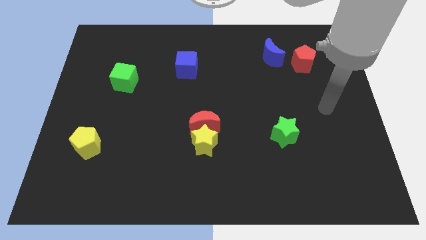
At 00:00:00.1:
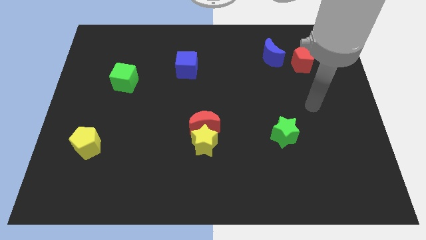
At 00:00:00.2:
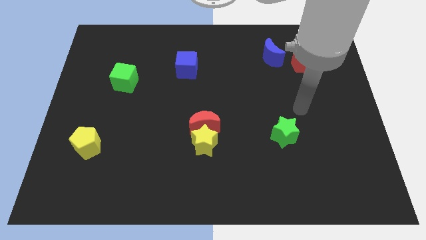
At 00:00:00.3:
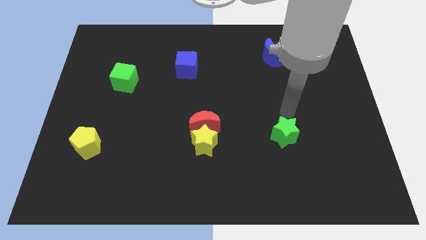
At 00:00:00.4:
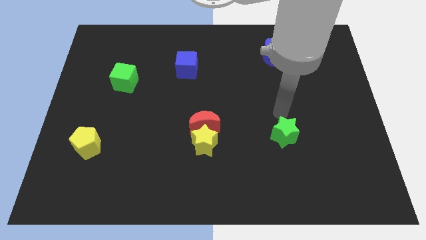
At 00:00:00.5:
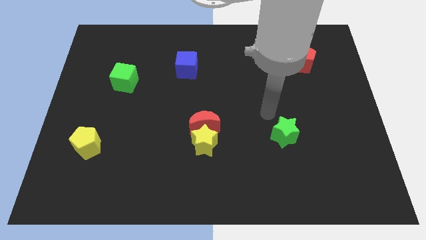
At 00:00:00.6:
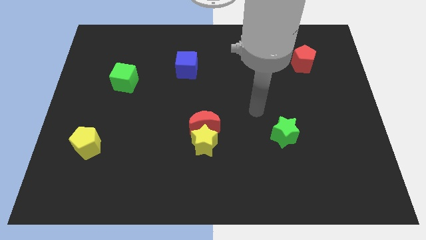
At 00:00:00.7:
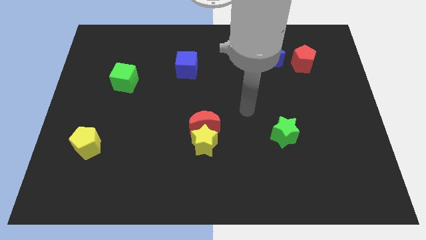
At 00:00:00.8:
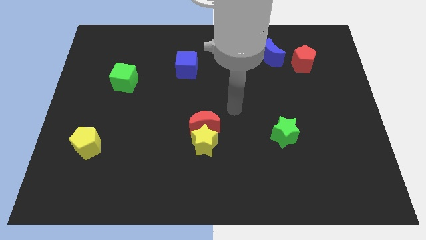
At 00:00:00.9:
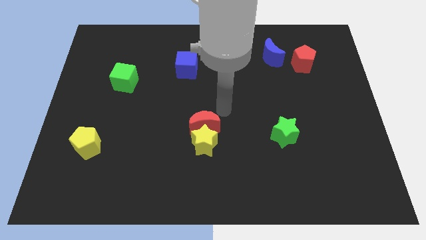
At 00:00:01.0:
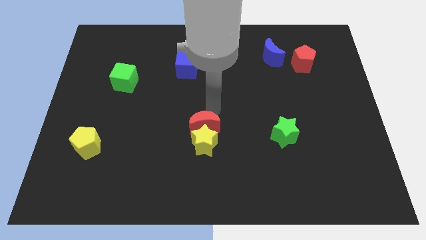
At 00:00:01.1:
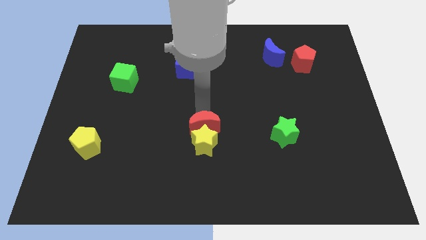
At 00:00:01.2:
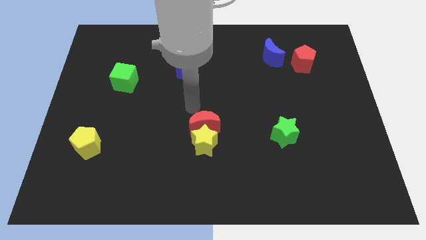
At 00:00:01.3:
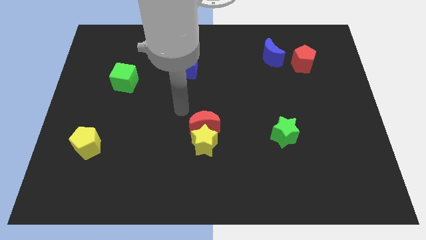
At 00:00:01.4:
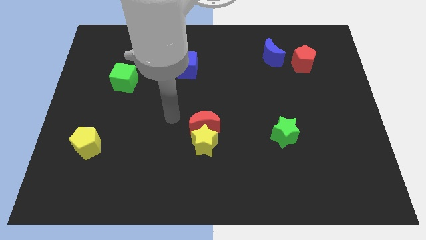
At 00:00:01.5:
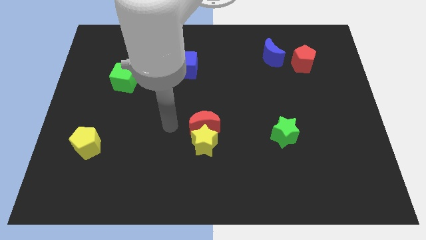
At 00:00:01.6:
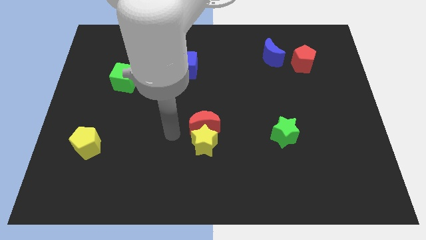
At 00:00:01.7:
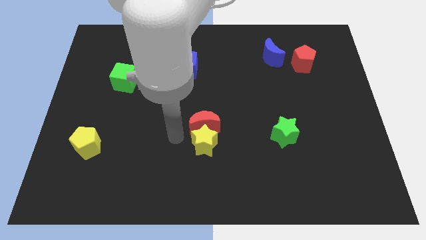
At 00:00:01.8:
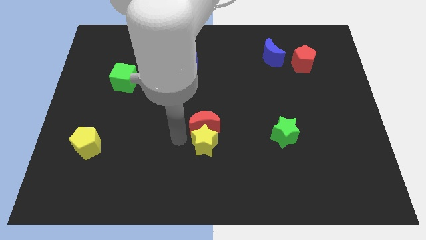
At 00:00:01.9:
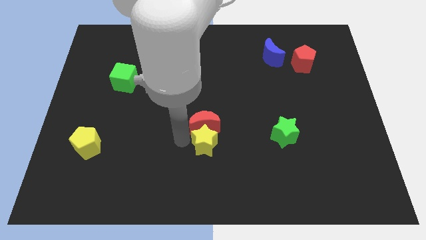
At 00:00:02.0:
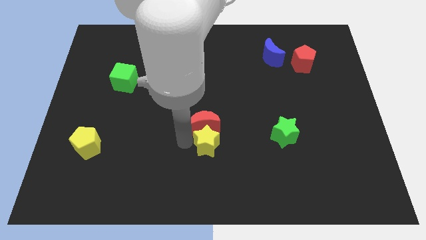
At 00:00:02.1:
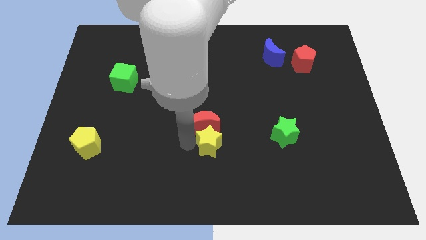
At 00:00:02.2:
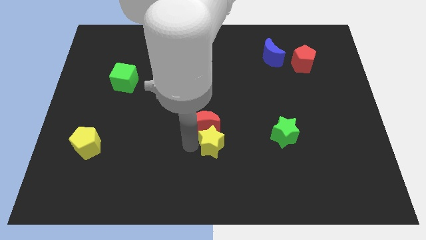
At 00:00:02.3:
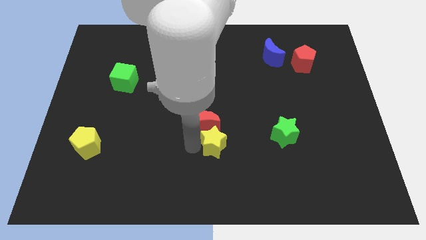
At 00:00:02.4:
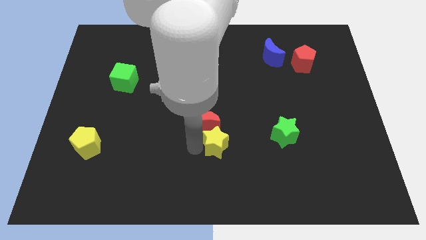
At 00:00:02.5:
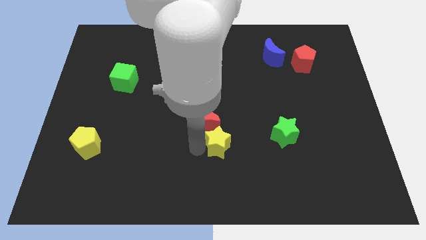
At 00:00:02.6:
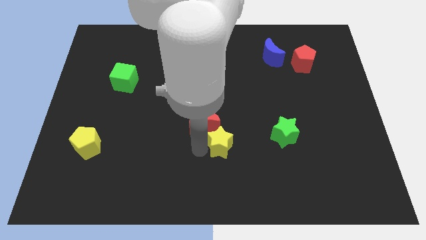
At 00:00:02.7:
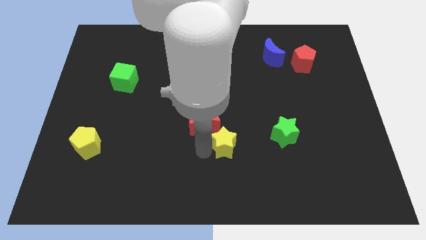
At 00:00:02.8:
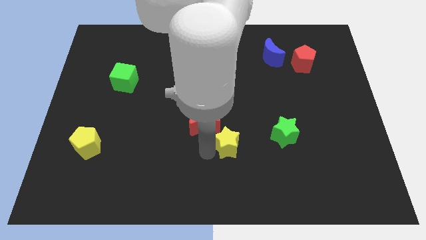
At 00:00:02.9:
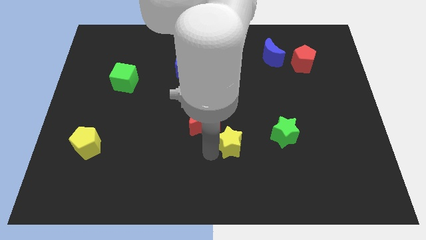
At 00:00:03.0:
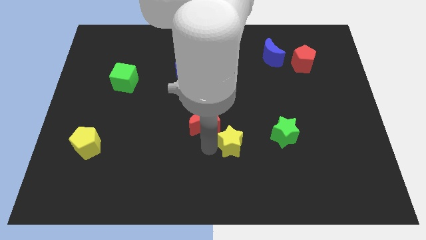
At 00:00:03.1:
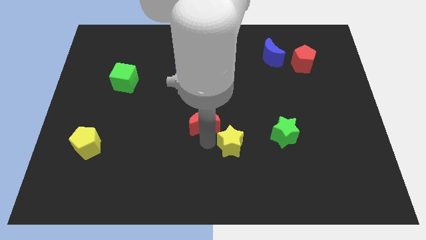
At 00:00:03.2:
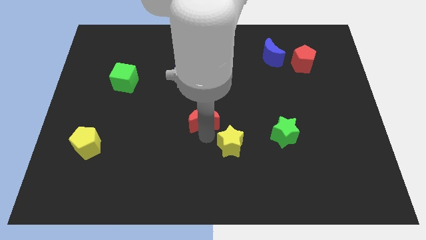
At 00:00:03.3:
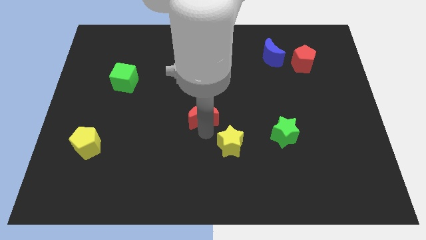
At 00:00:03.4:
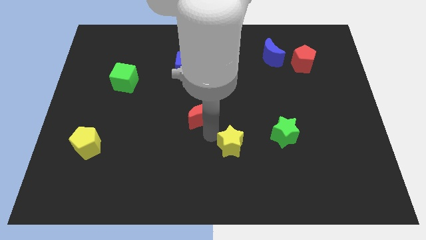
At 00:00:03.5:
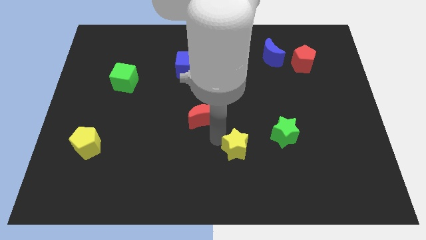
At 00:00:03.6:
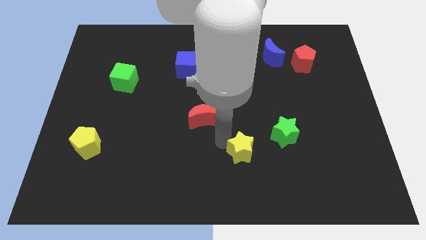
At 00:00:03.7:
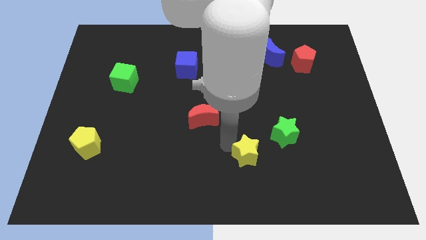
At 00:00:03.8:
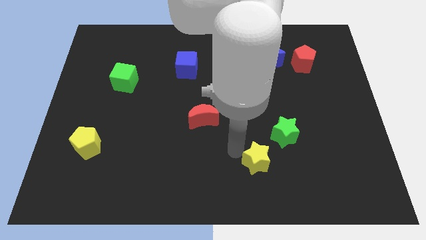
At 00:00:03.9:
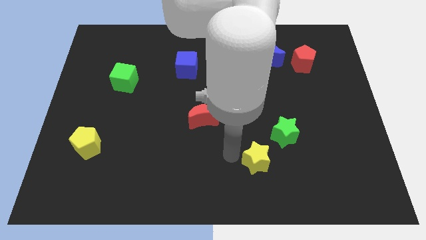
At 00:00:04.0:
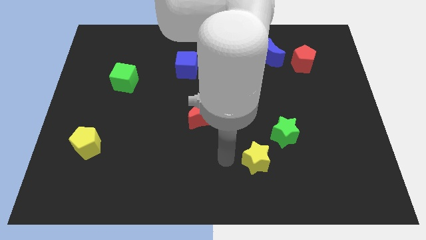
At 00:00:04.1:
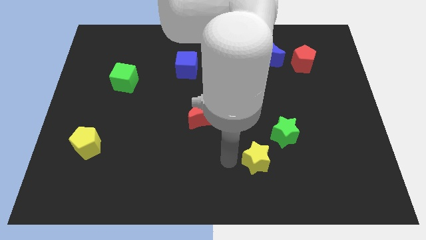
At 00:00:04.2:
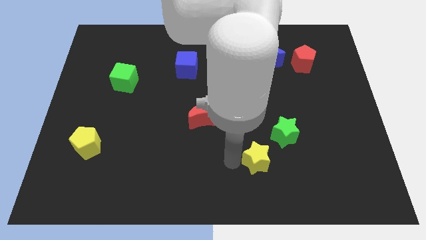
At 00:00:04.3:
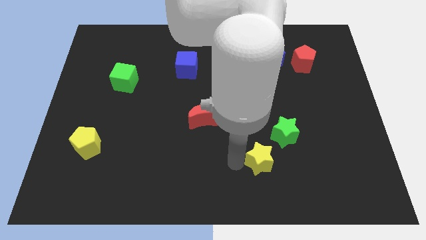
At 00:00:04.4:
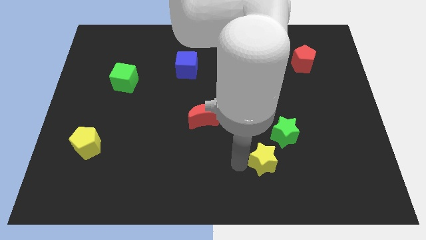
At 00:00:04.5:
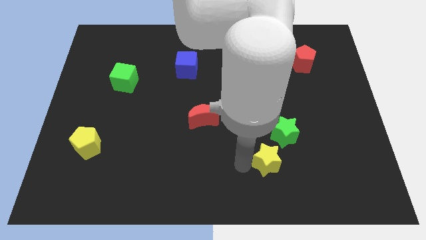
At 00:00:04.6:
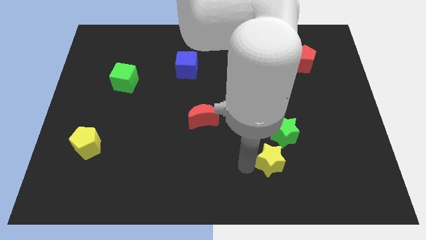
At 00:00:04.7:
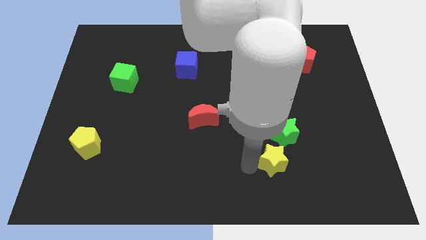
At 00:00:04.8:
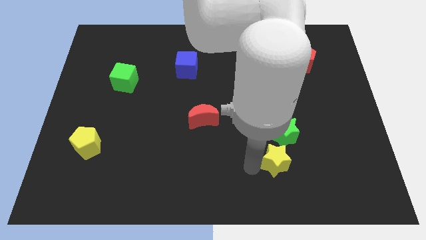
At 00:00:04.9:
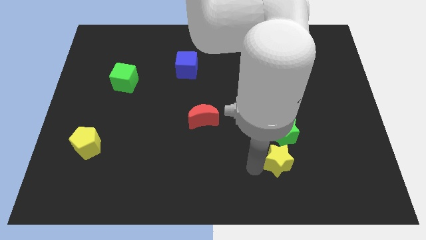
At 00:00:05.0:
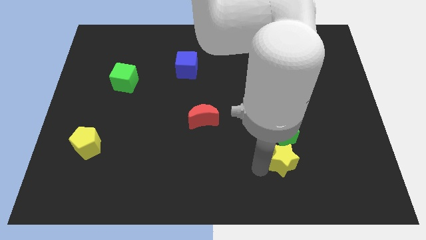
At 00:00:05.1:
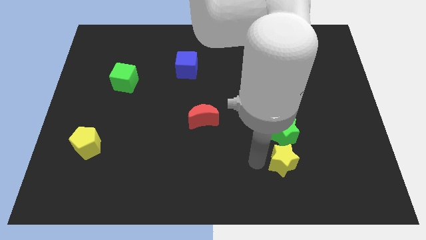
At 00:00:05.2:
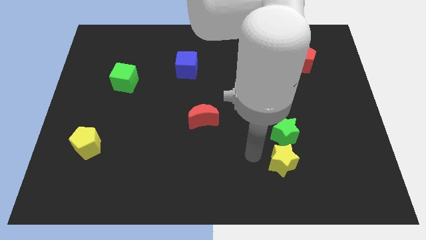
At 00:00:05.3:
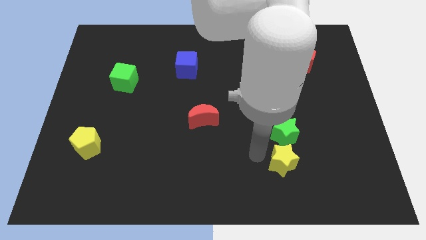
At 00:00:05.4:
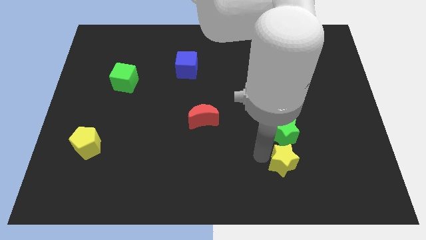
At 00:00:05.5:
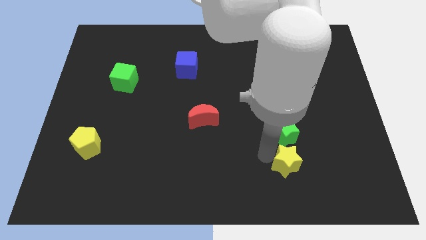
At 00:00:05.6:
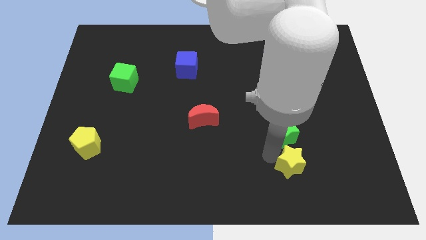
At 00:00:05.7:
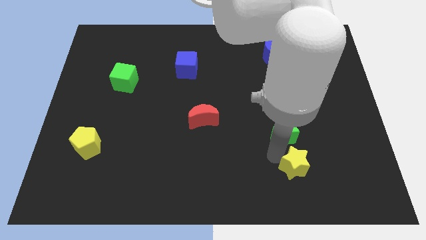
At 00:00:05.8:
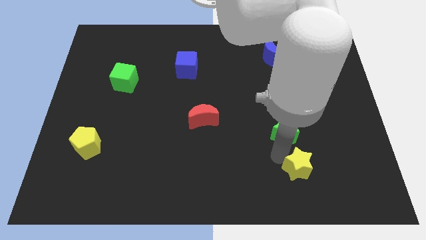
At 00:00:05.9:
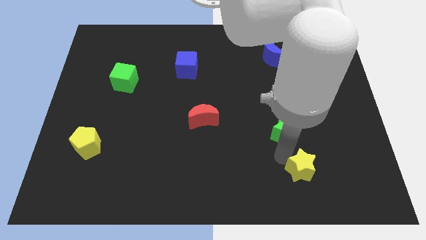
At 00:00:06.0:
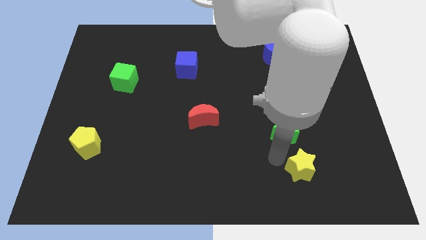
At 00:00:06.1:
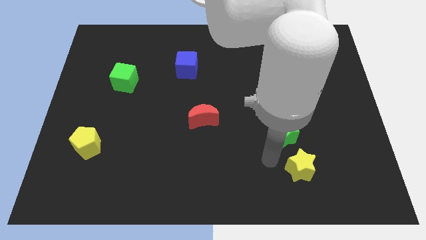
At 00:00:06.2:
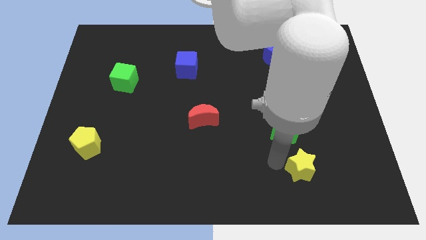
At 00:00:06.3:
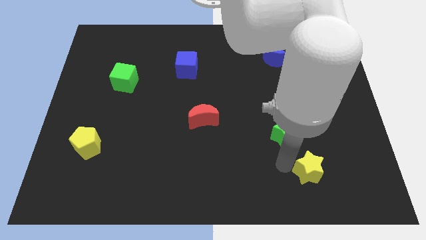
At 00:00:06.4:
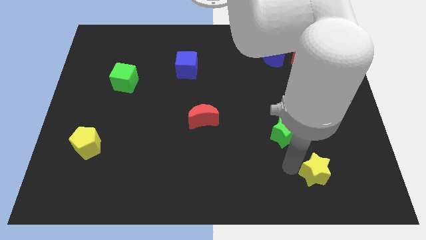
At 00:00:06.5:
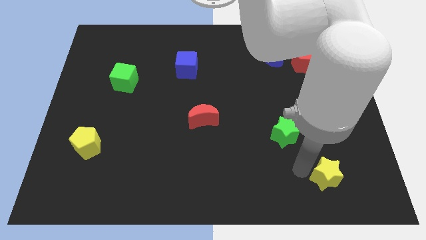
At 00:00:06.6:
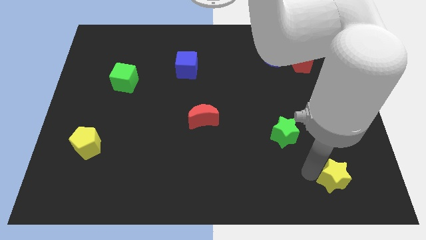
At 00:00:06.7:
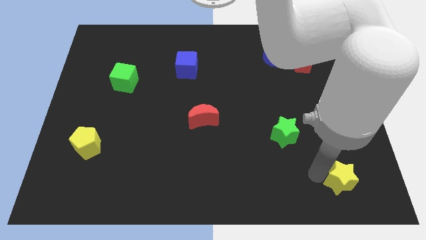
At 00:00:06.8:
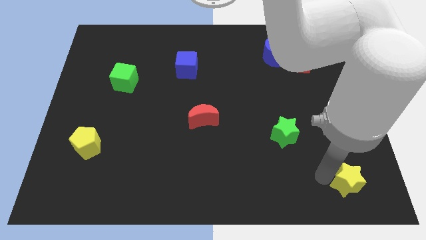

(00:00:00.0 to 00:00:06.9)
put the yellow star to the bottom right corner
